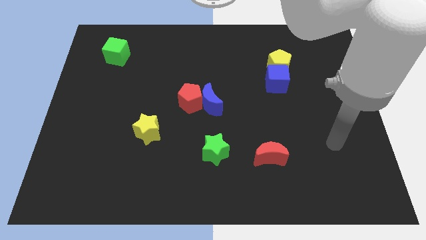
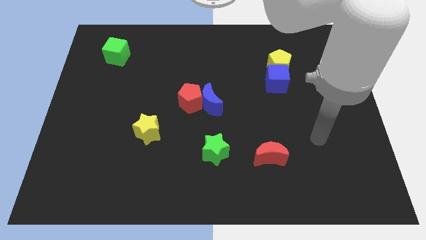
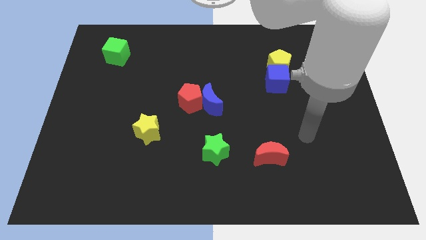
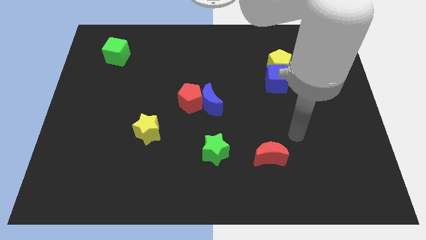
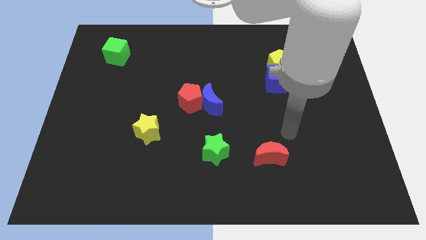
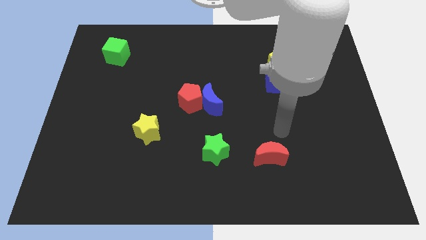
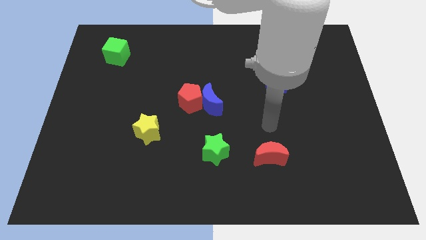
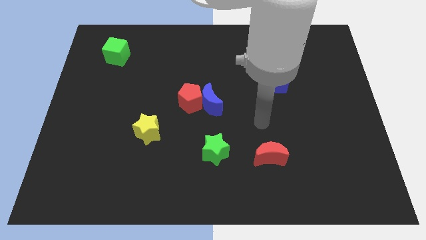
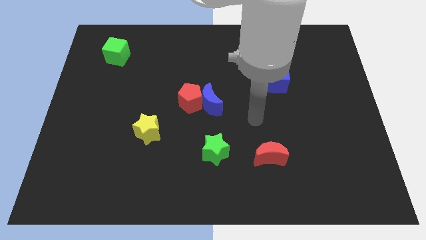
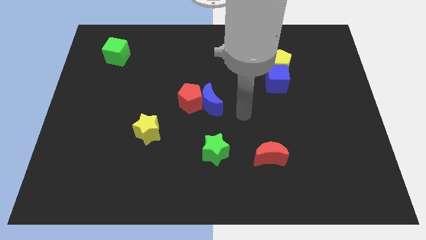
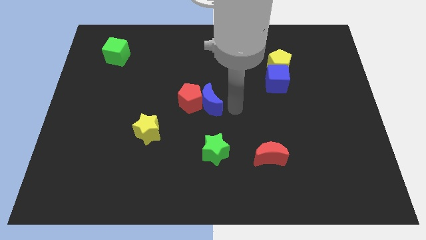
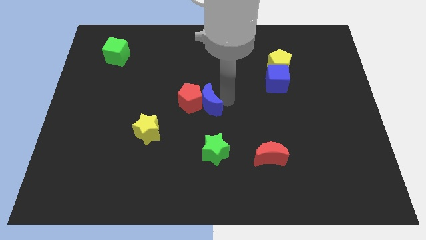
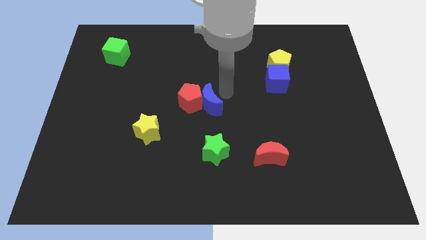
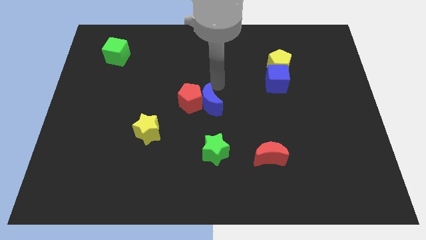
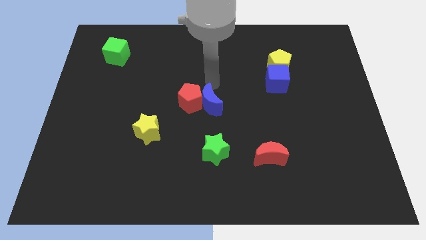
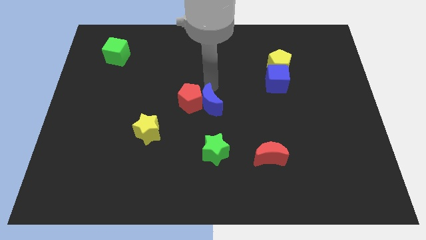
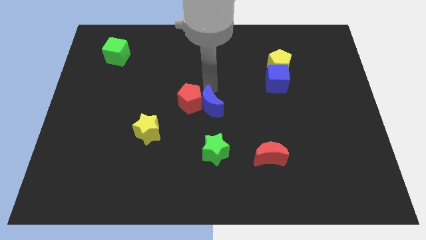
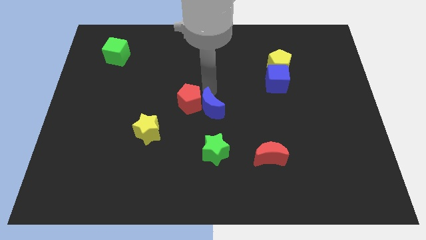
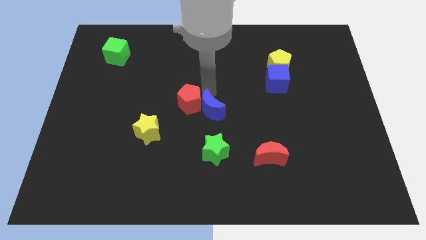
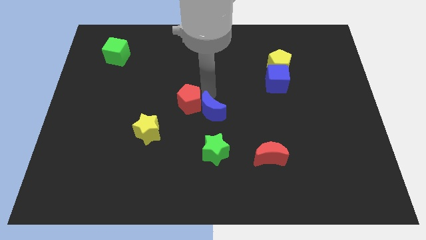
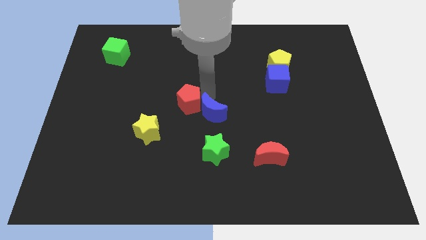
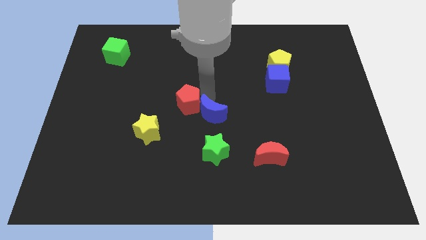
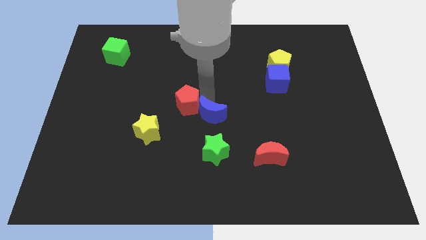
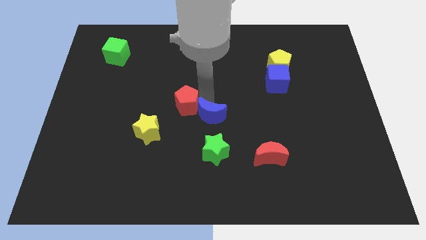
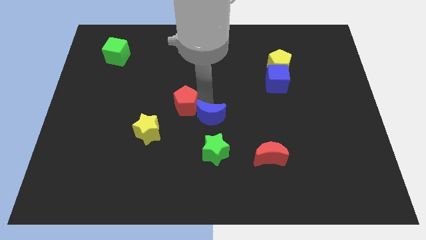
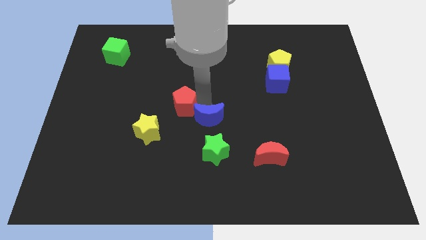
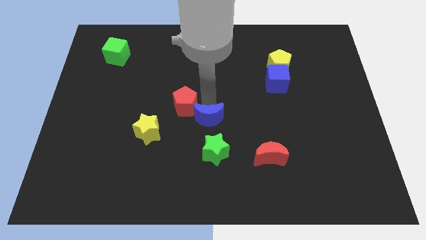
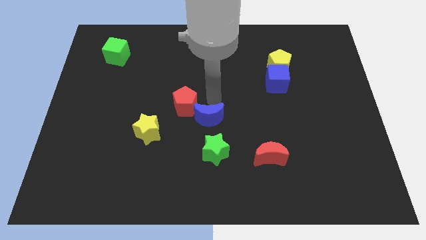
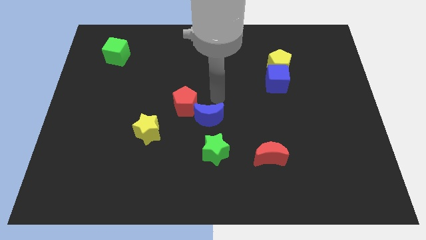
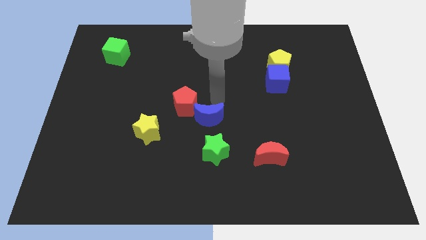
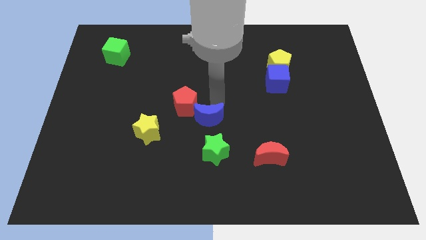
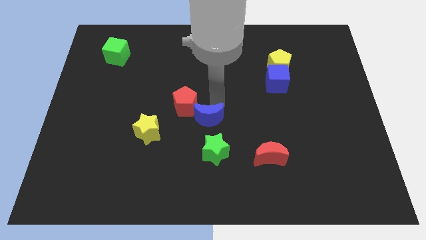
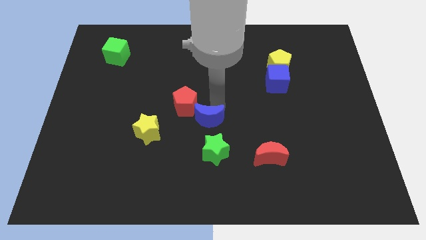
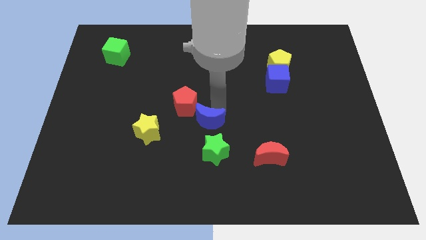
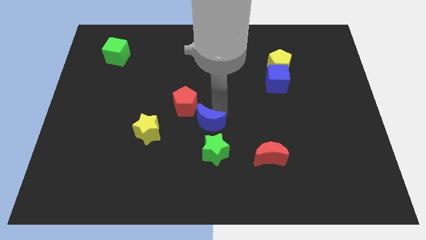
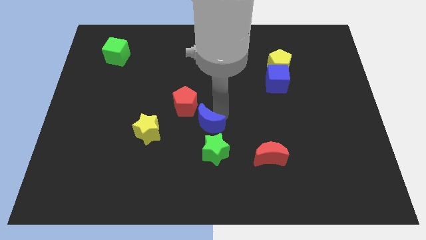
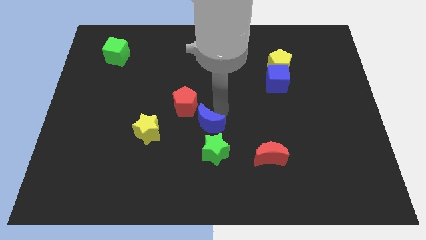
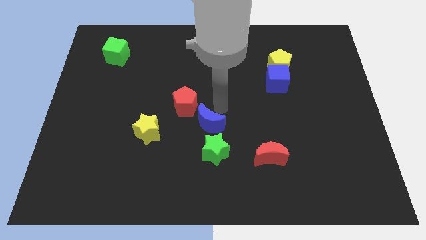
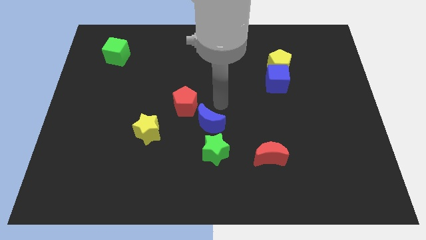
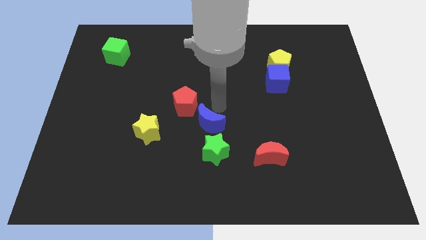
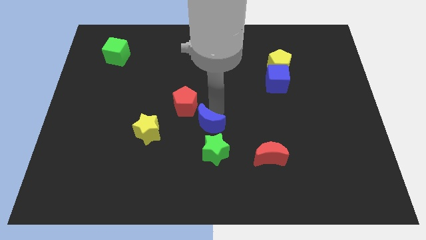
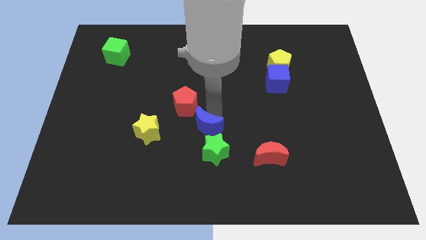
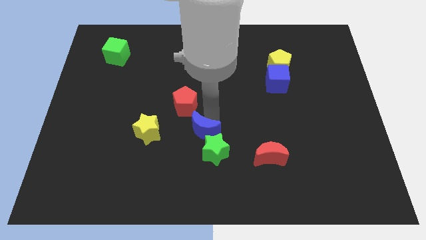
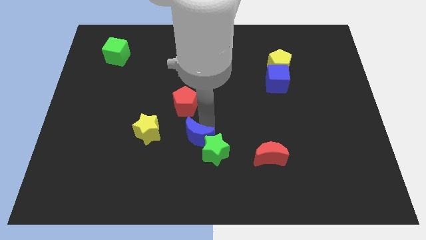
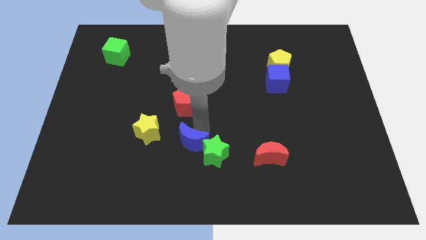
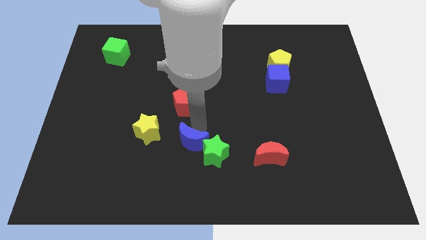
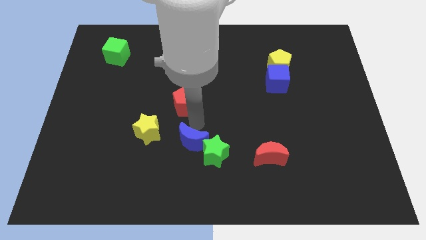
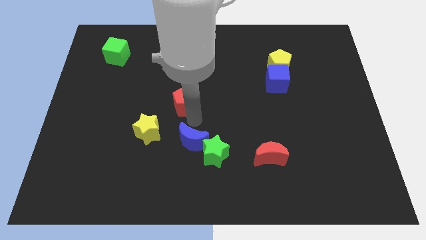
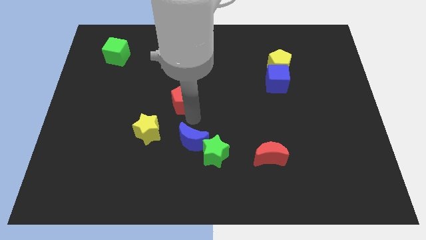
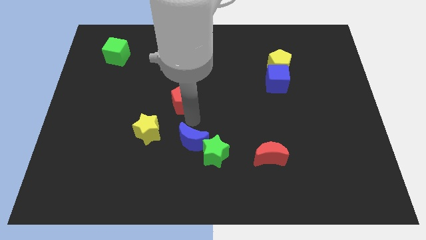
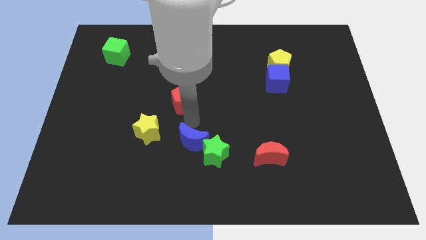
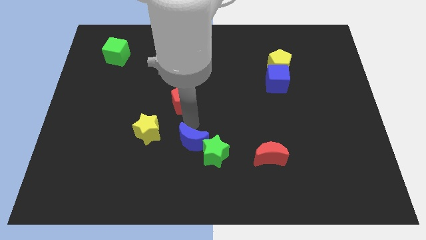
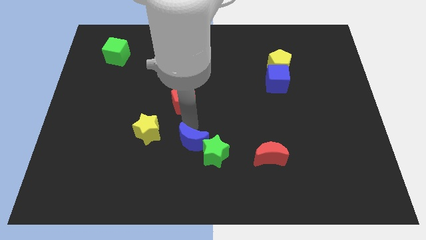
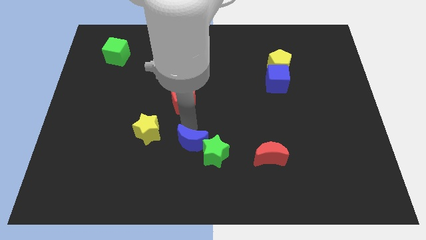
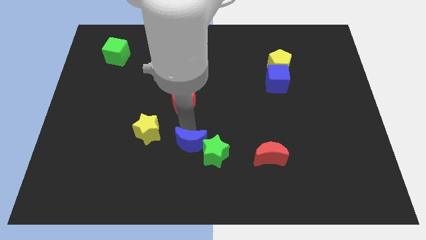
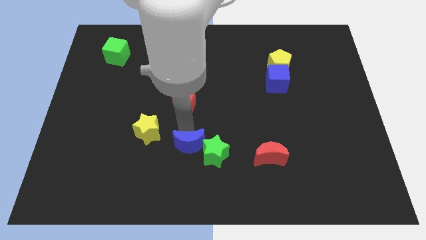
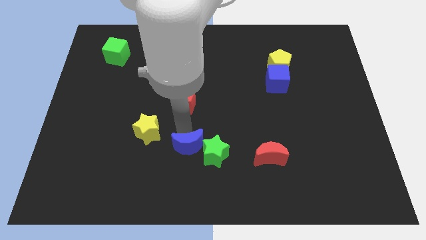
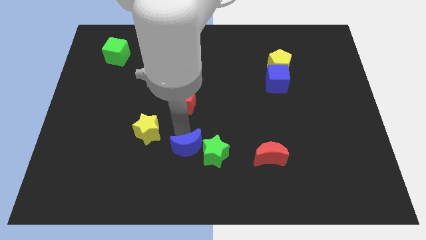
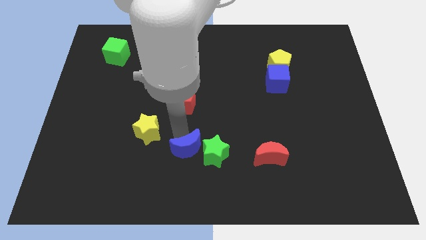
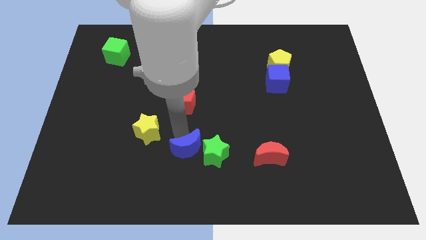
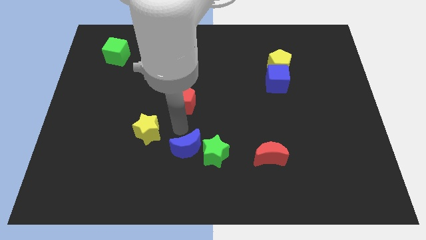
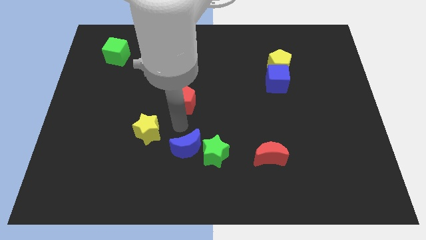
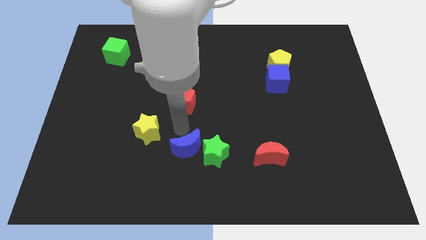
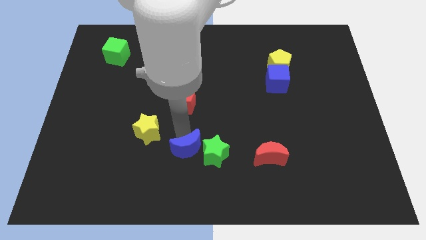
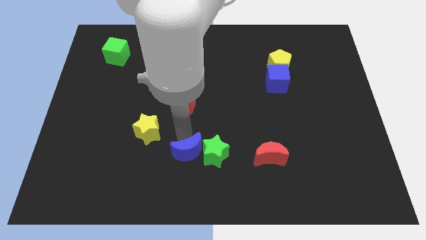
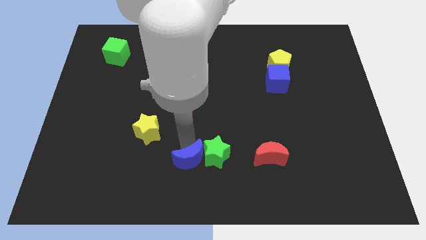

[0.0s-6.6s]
move the blue moon to the bottom side
